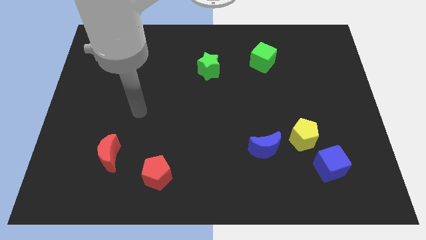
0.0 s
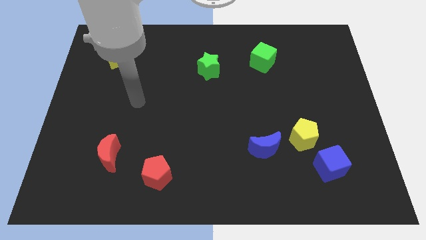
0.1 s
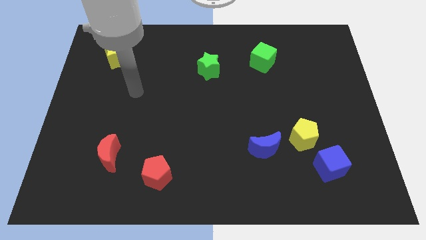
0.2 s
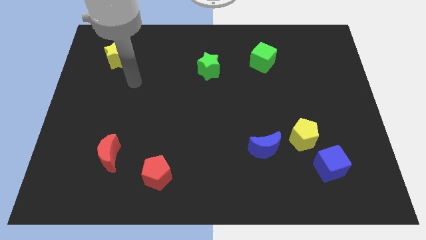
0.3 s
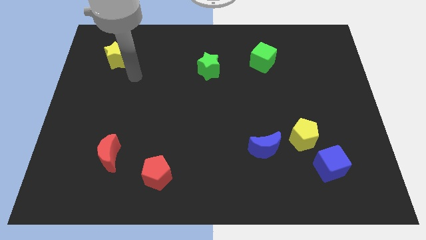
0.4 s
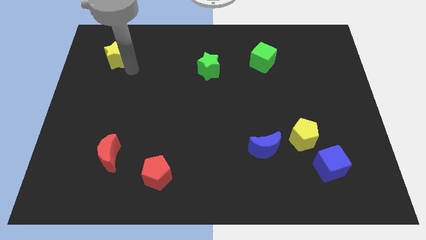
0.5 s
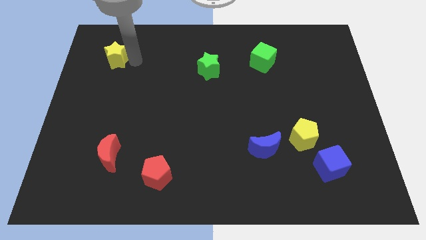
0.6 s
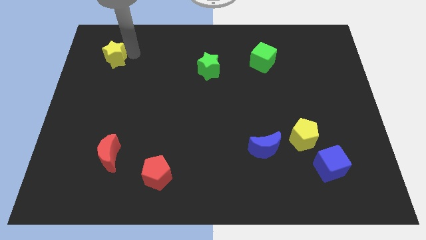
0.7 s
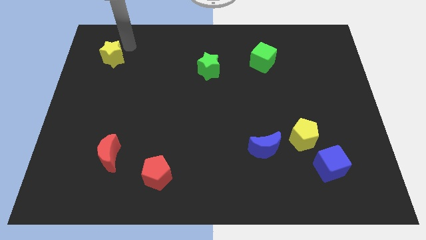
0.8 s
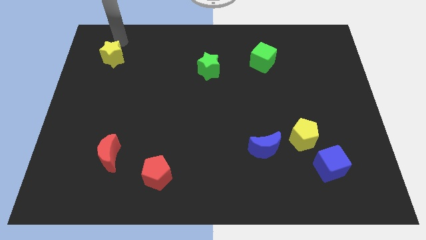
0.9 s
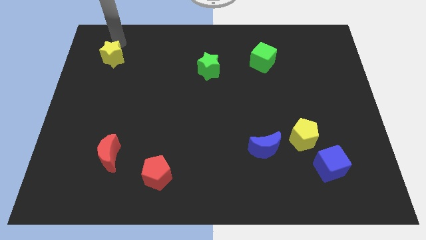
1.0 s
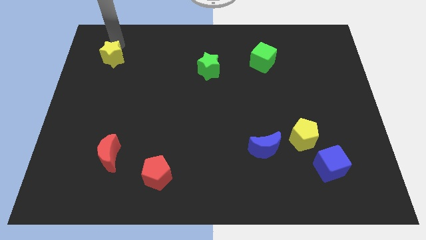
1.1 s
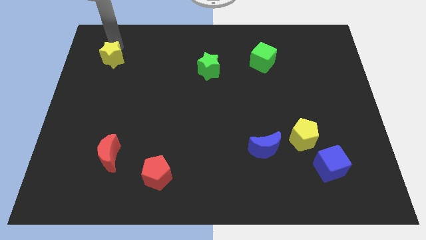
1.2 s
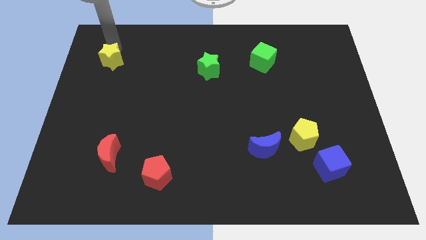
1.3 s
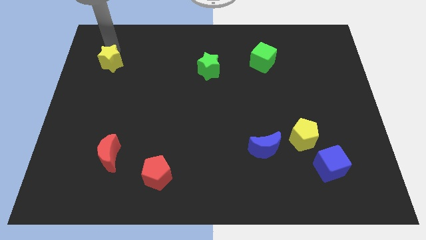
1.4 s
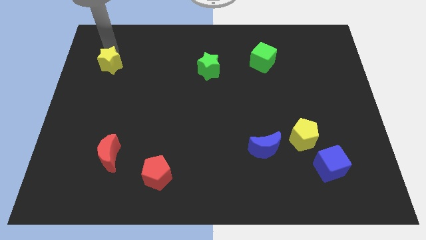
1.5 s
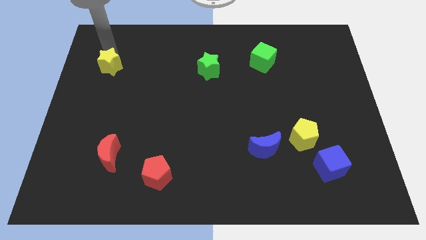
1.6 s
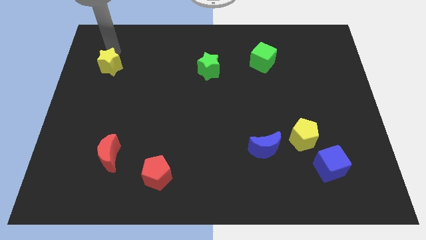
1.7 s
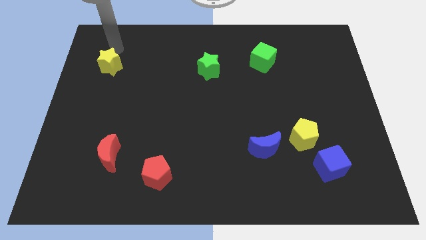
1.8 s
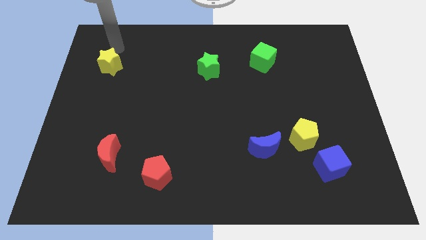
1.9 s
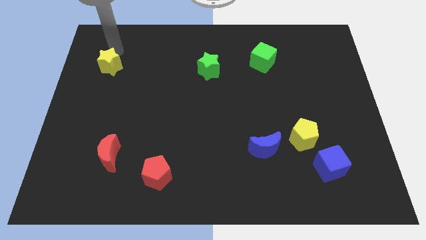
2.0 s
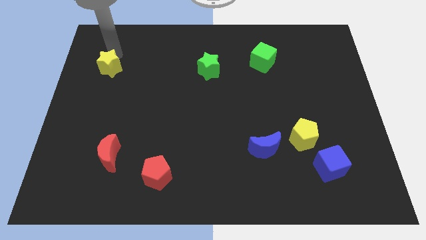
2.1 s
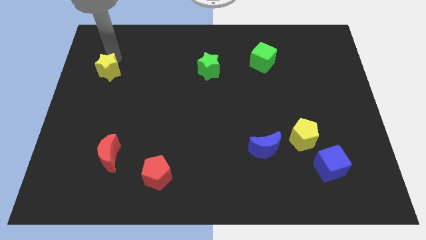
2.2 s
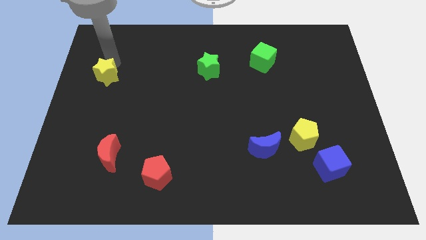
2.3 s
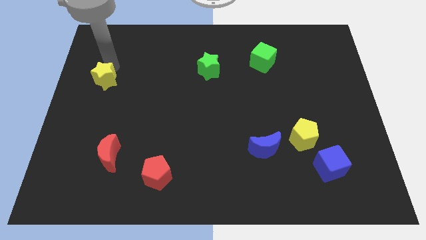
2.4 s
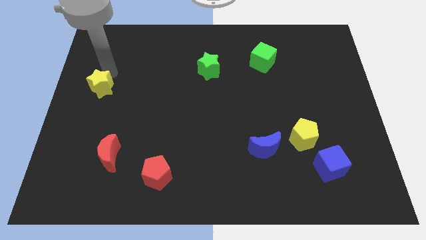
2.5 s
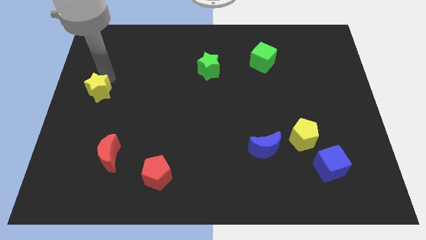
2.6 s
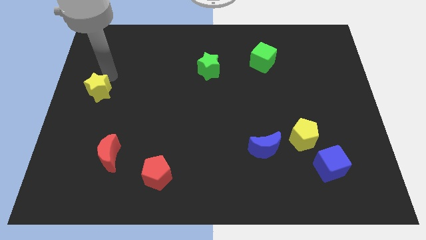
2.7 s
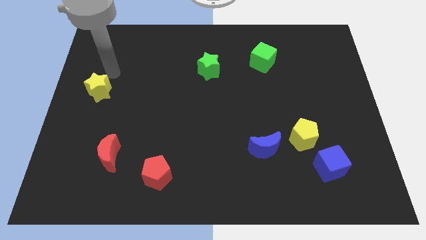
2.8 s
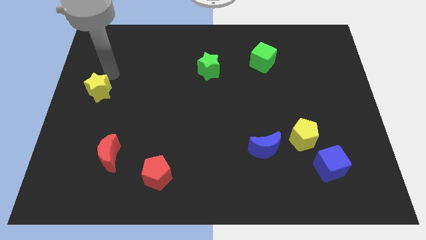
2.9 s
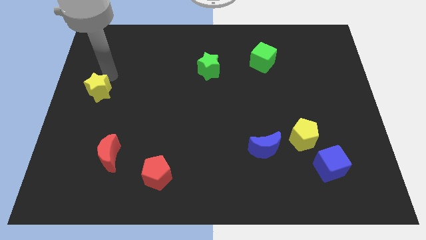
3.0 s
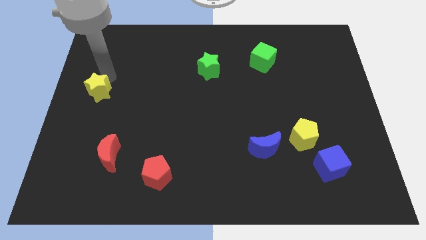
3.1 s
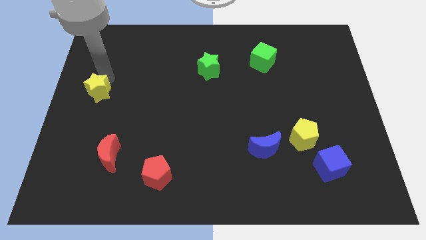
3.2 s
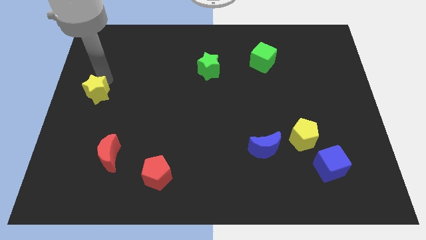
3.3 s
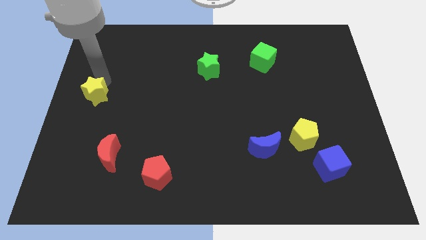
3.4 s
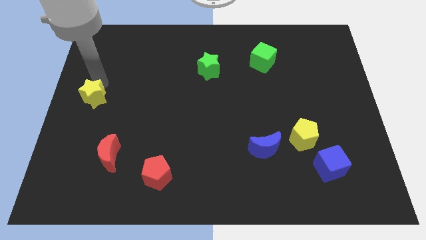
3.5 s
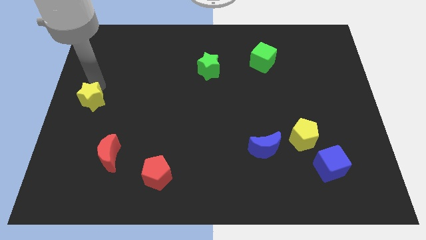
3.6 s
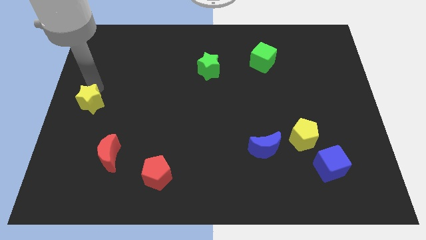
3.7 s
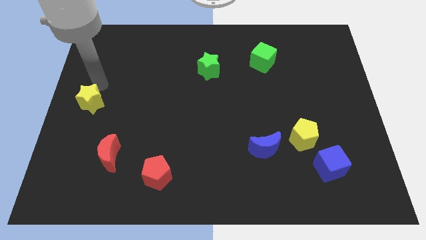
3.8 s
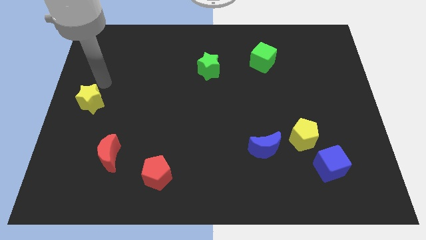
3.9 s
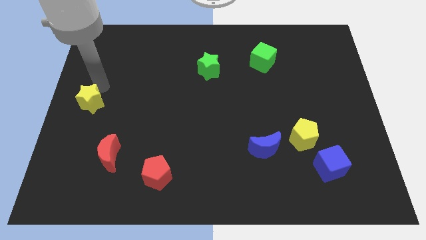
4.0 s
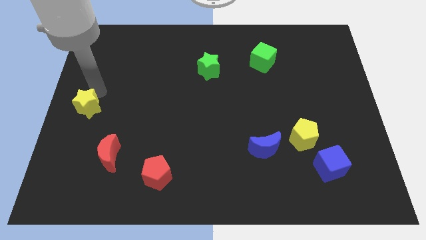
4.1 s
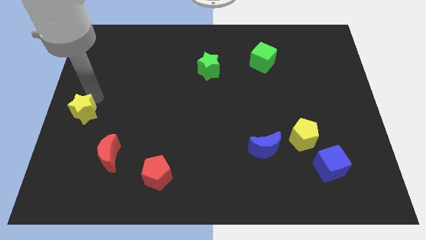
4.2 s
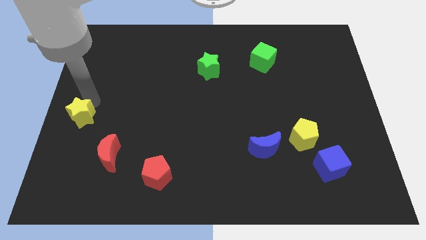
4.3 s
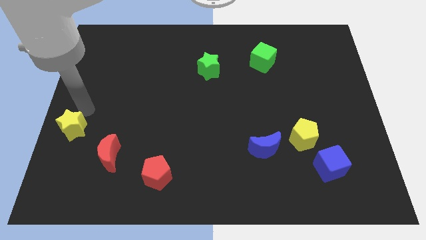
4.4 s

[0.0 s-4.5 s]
slide the yellow star downwards

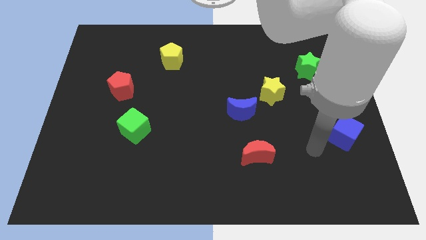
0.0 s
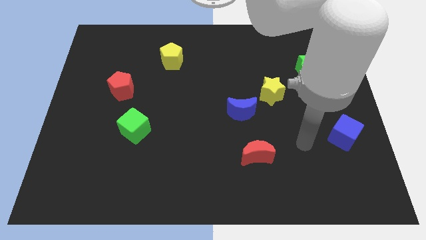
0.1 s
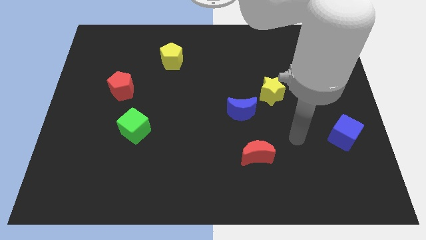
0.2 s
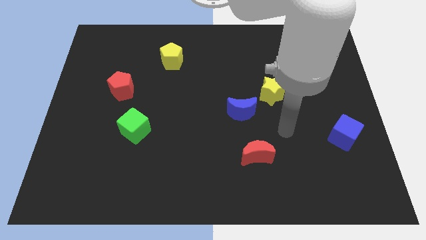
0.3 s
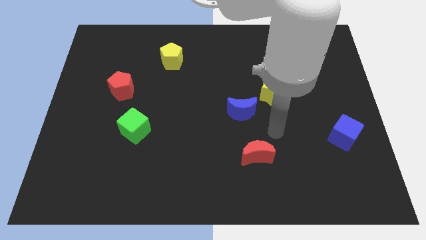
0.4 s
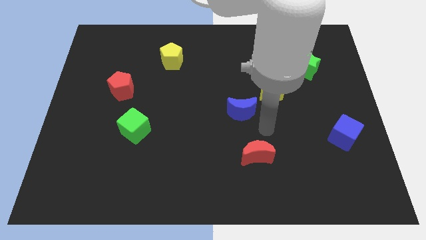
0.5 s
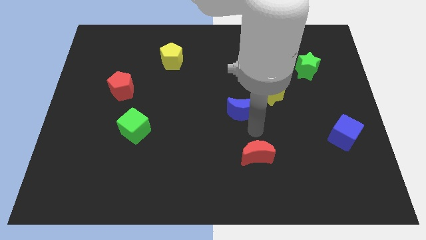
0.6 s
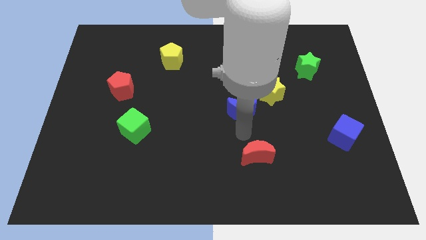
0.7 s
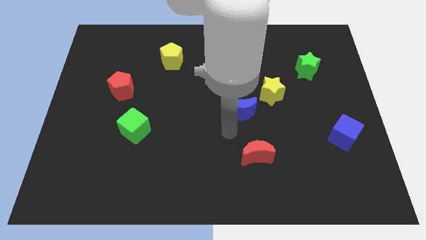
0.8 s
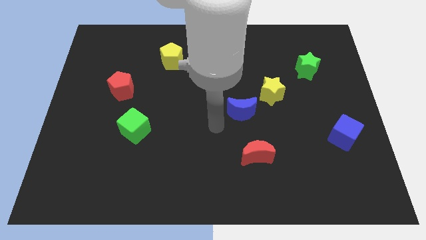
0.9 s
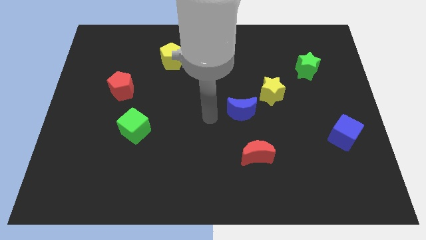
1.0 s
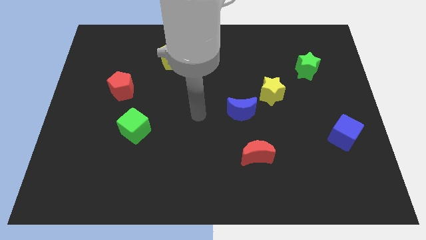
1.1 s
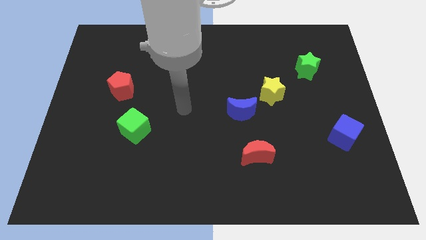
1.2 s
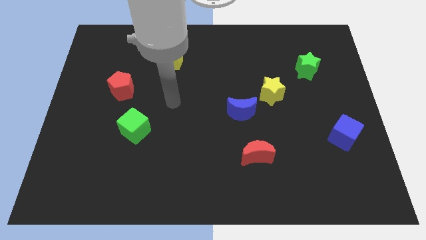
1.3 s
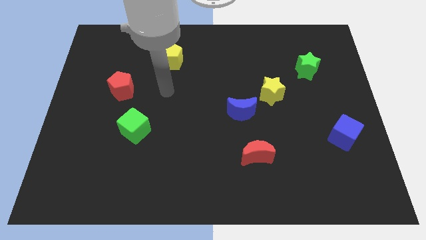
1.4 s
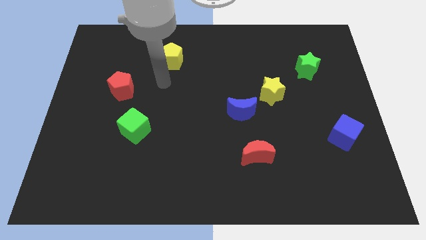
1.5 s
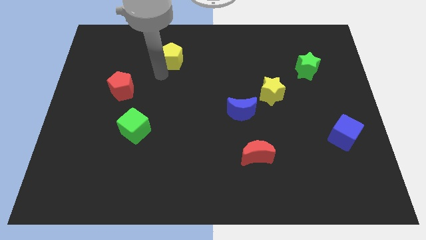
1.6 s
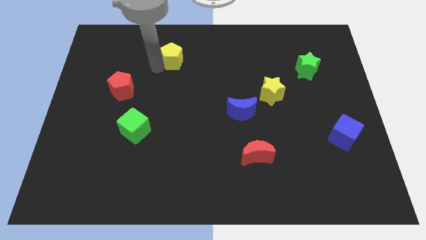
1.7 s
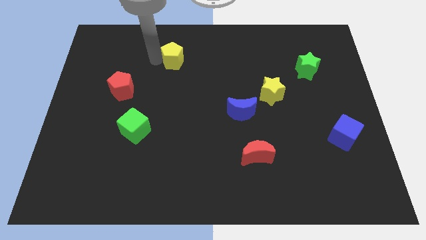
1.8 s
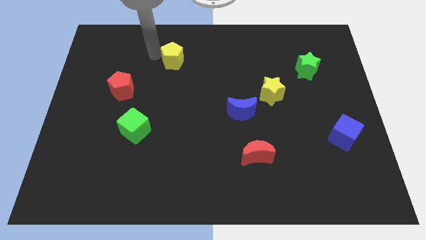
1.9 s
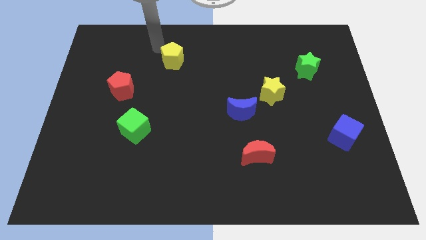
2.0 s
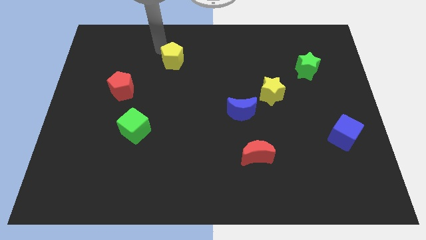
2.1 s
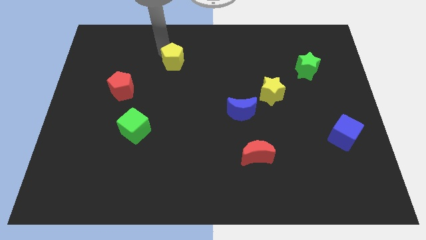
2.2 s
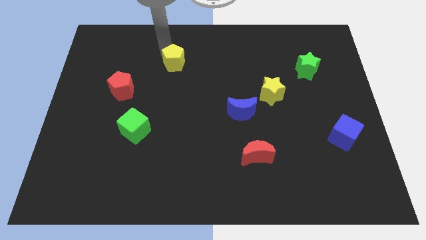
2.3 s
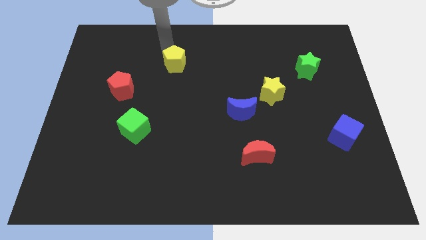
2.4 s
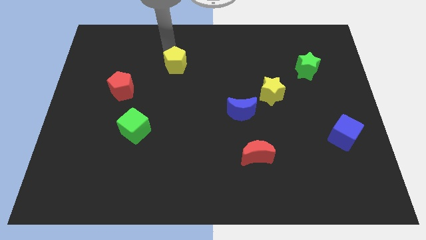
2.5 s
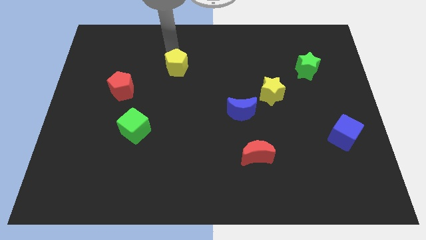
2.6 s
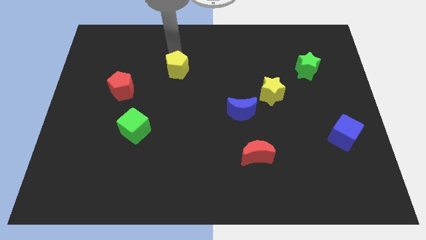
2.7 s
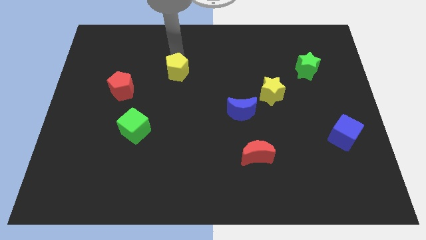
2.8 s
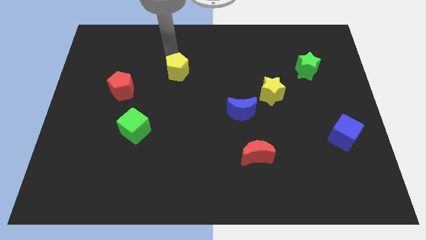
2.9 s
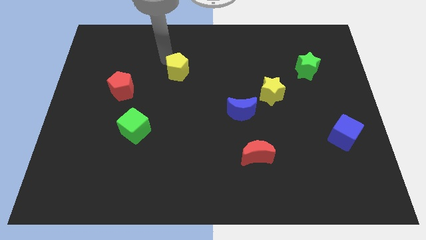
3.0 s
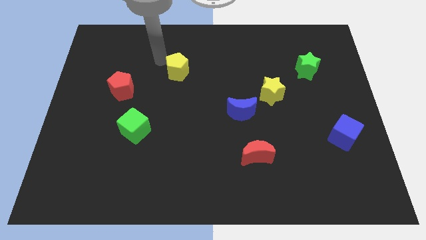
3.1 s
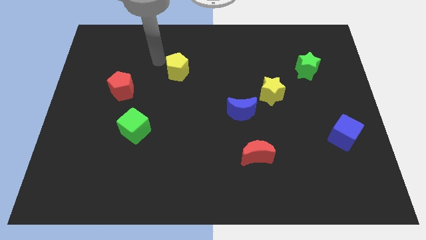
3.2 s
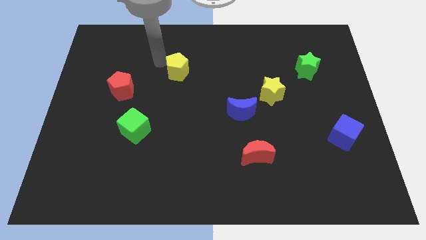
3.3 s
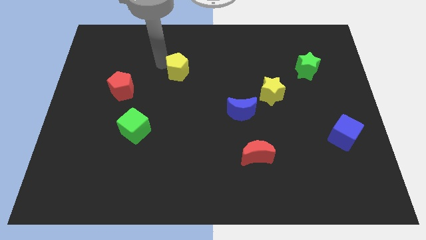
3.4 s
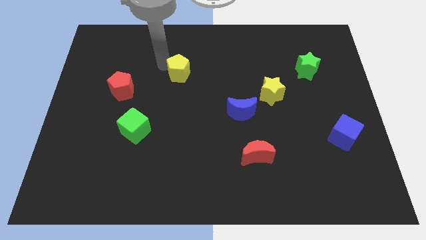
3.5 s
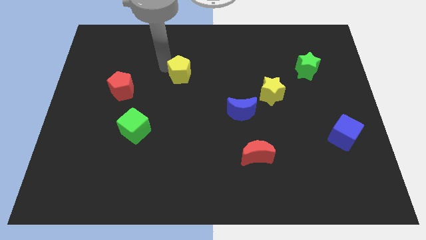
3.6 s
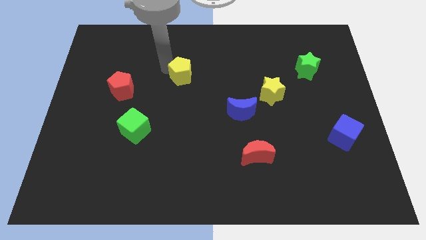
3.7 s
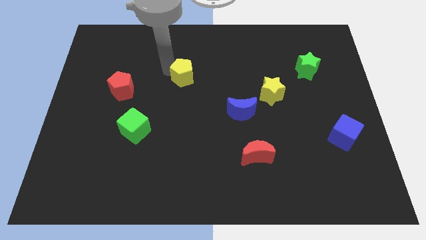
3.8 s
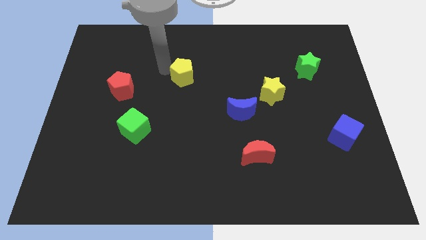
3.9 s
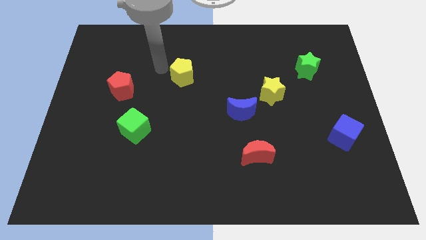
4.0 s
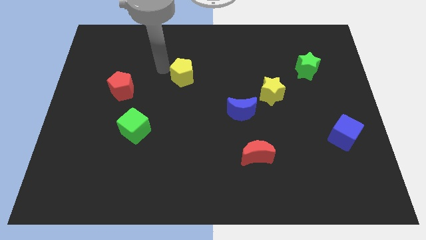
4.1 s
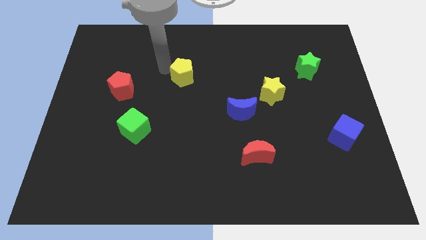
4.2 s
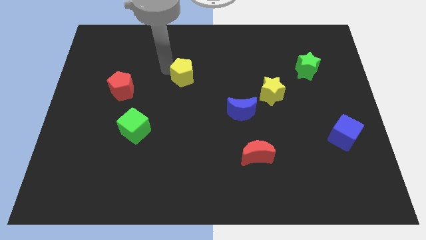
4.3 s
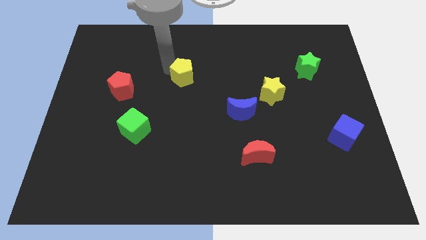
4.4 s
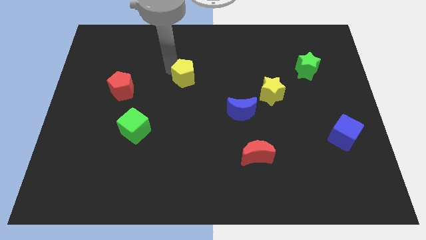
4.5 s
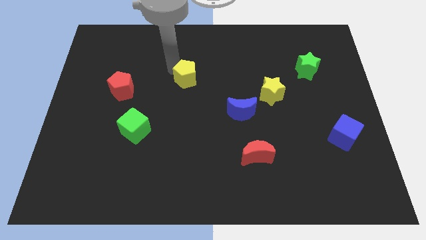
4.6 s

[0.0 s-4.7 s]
slide the yellow pentagon downwards and then right a little
